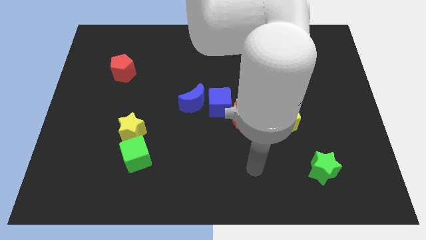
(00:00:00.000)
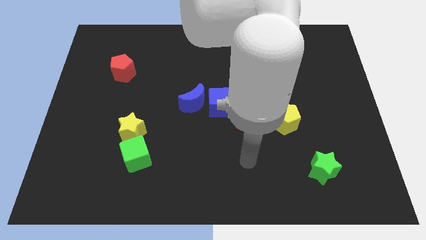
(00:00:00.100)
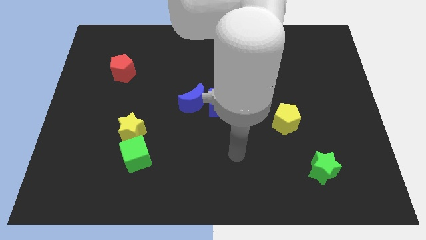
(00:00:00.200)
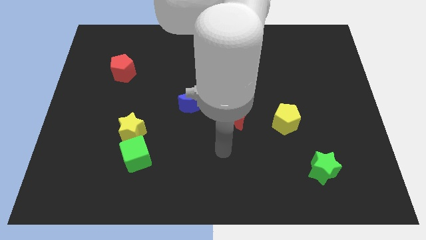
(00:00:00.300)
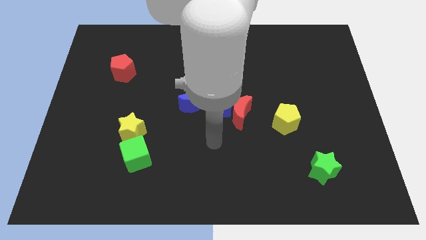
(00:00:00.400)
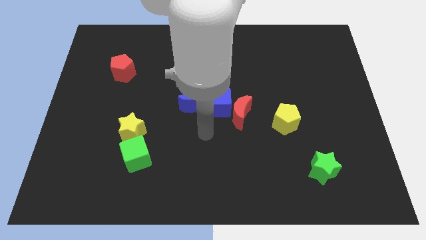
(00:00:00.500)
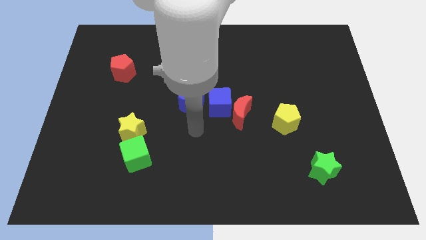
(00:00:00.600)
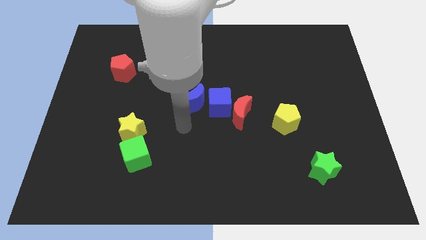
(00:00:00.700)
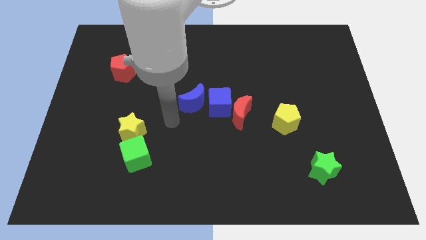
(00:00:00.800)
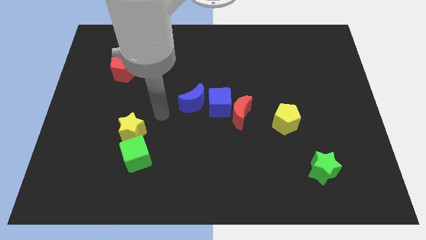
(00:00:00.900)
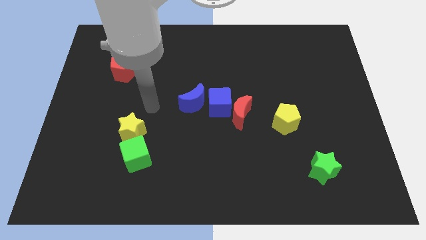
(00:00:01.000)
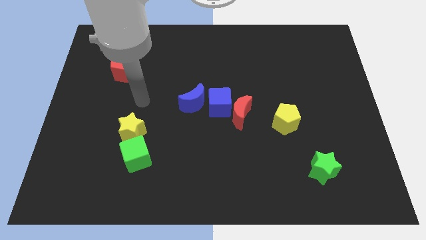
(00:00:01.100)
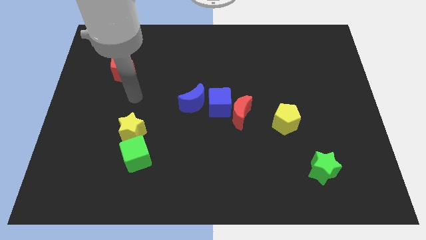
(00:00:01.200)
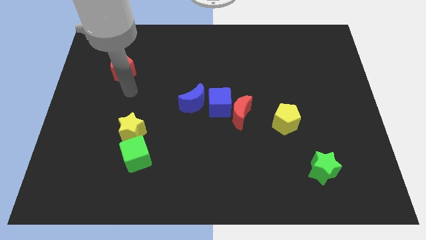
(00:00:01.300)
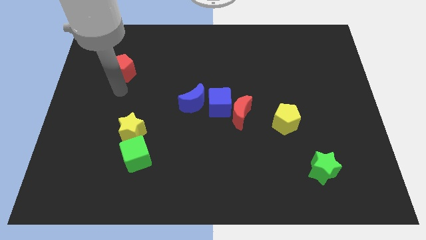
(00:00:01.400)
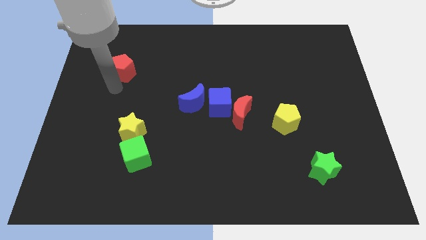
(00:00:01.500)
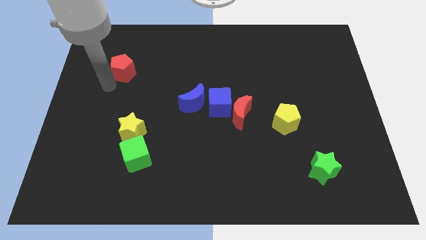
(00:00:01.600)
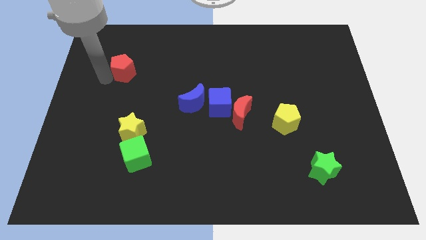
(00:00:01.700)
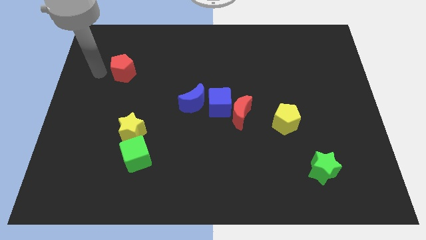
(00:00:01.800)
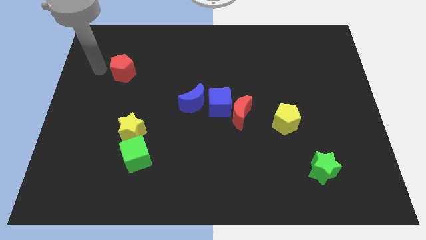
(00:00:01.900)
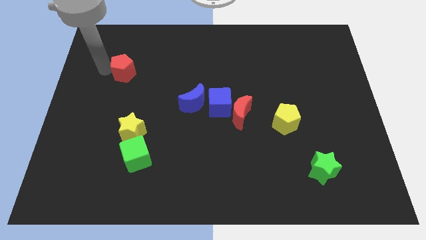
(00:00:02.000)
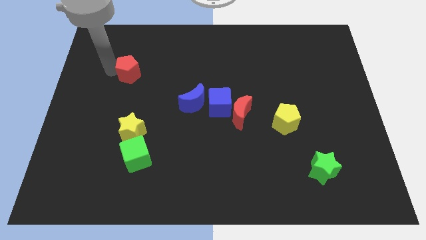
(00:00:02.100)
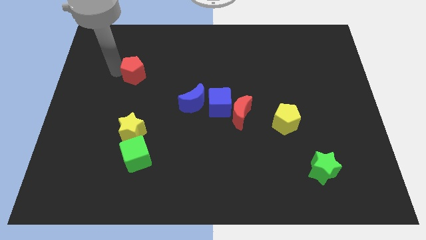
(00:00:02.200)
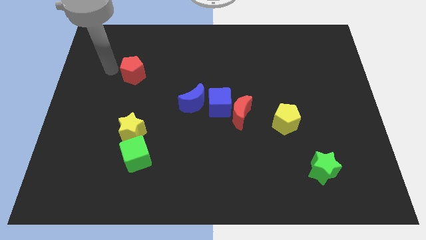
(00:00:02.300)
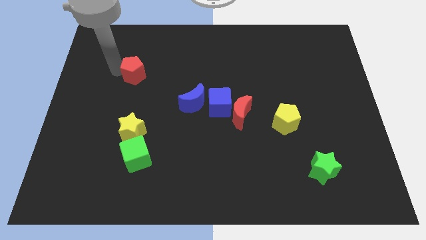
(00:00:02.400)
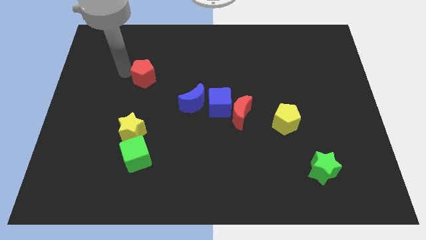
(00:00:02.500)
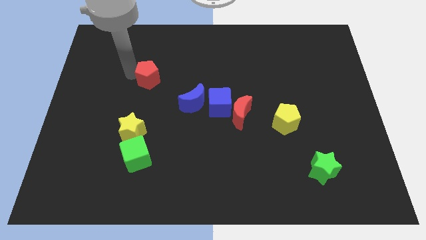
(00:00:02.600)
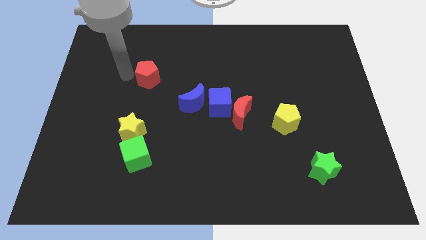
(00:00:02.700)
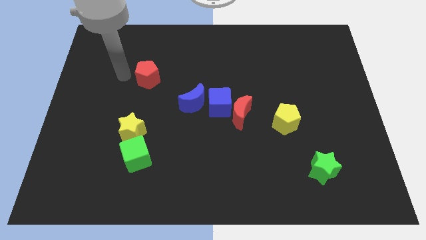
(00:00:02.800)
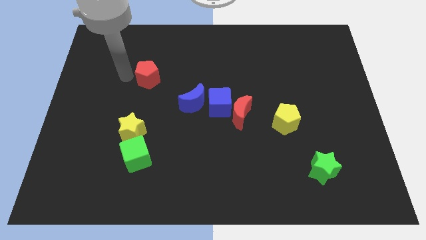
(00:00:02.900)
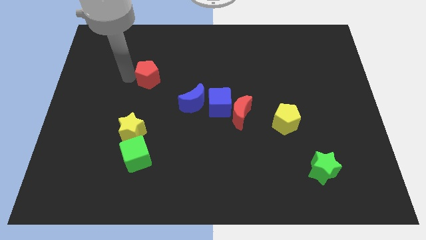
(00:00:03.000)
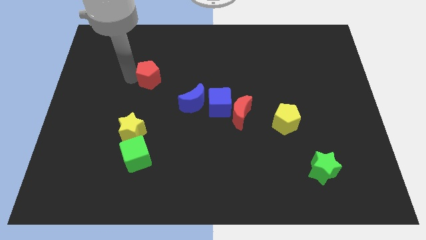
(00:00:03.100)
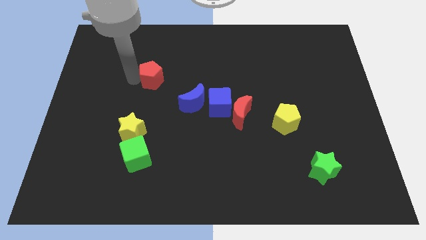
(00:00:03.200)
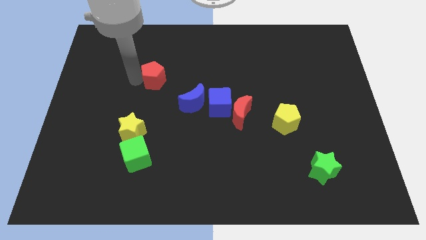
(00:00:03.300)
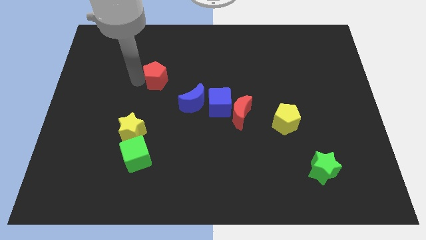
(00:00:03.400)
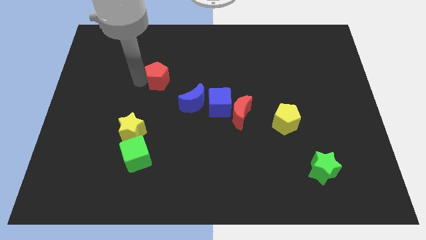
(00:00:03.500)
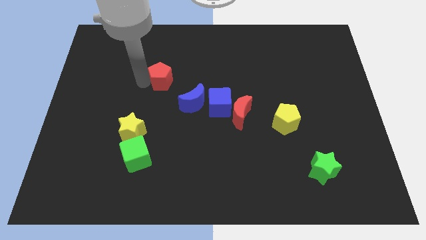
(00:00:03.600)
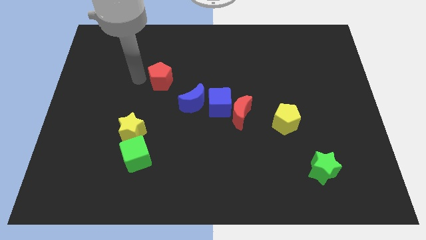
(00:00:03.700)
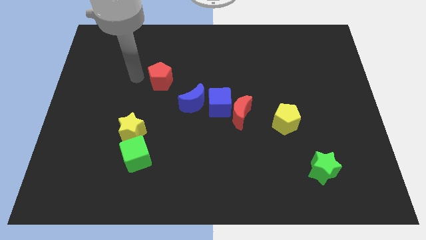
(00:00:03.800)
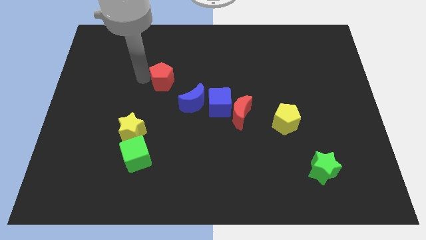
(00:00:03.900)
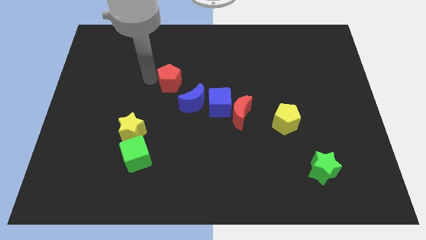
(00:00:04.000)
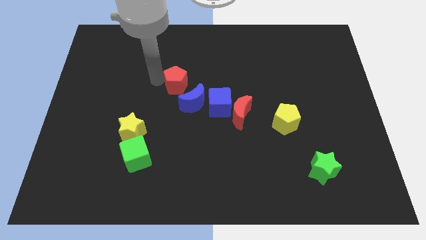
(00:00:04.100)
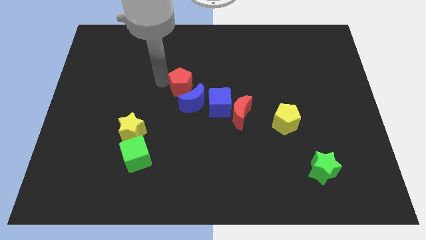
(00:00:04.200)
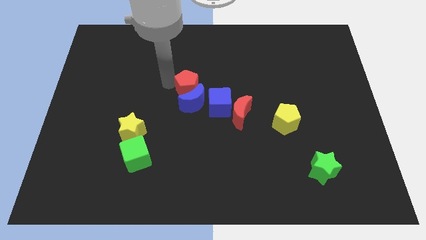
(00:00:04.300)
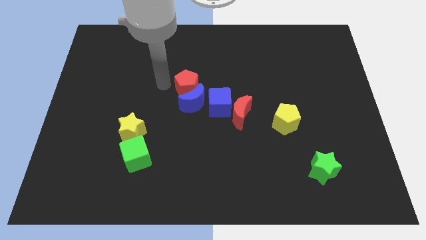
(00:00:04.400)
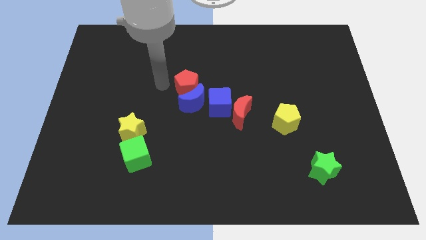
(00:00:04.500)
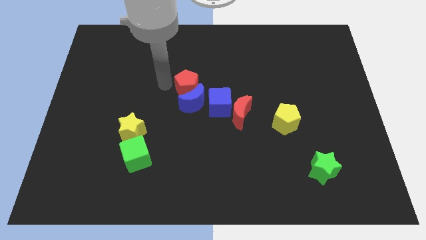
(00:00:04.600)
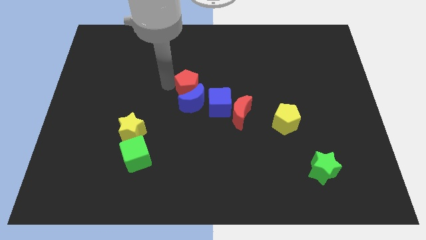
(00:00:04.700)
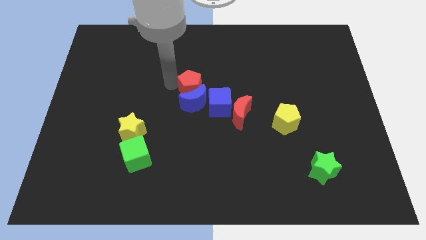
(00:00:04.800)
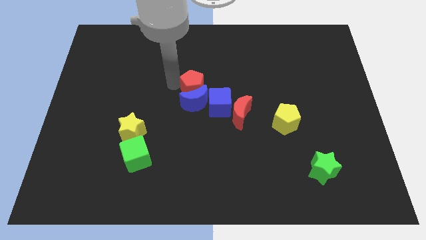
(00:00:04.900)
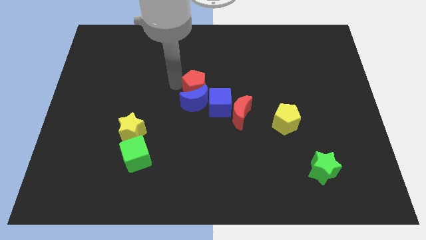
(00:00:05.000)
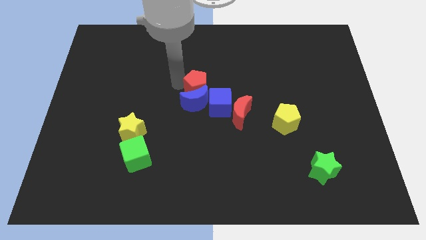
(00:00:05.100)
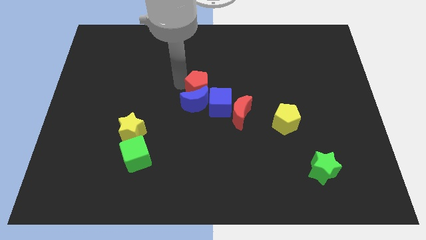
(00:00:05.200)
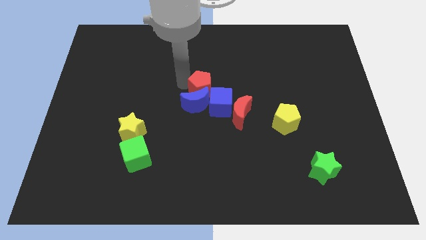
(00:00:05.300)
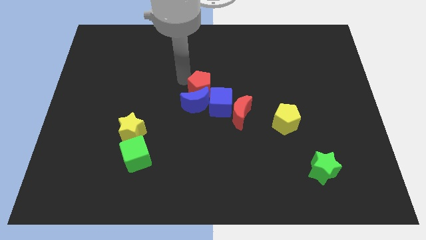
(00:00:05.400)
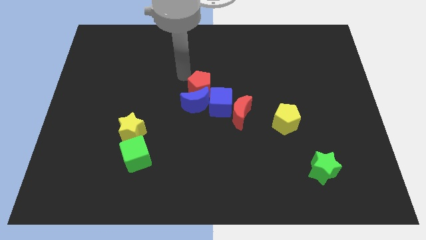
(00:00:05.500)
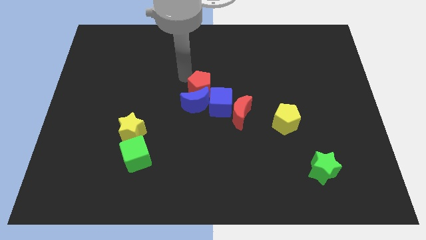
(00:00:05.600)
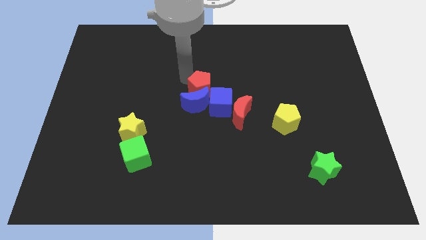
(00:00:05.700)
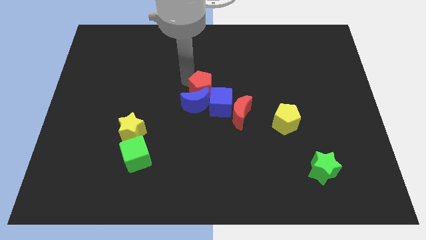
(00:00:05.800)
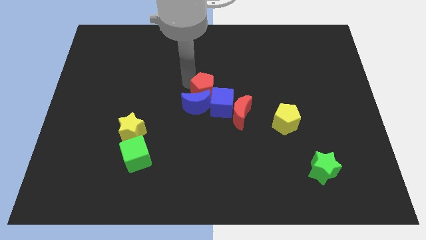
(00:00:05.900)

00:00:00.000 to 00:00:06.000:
put the red pentagon close to the blue cube

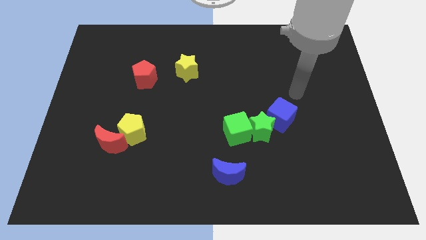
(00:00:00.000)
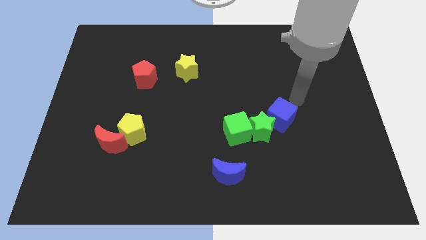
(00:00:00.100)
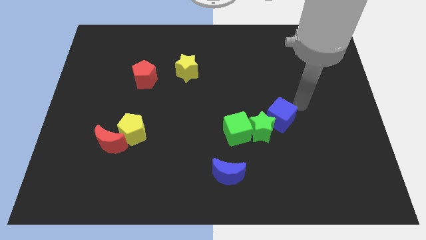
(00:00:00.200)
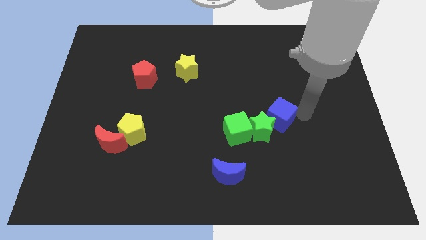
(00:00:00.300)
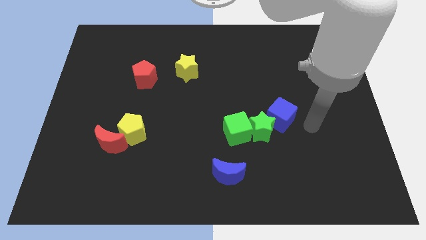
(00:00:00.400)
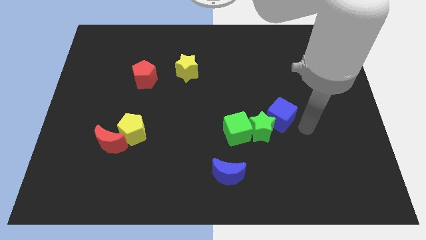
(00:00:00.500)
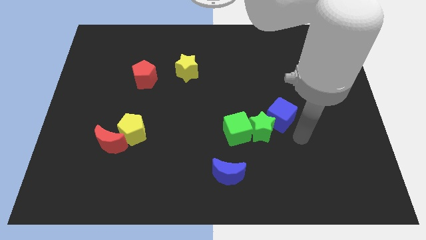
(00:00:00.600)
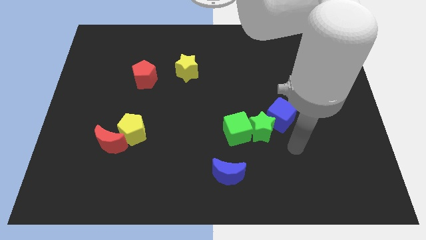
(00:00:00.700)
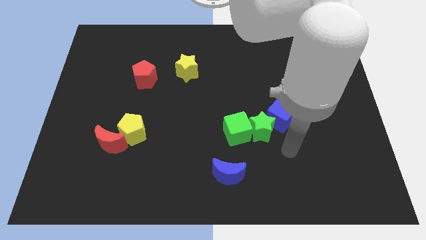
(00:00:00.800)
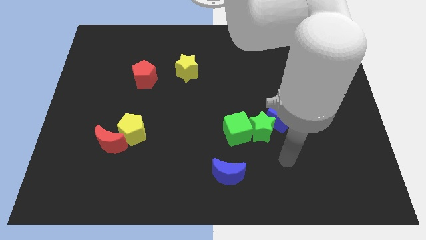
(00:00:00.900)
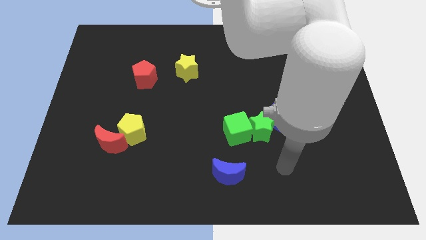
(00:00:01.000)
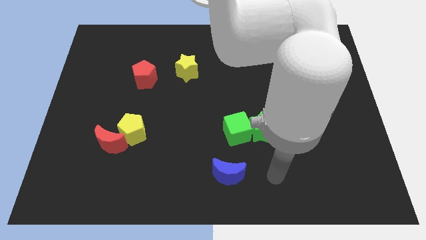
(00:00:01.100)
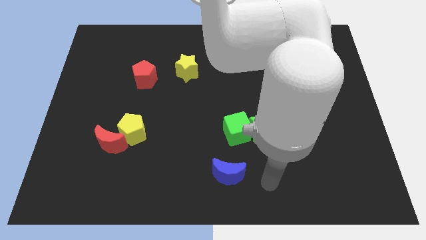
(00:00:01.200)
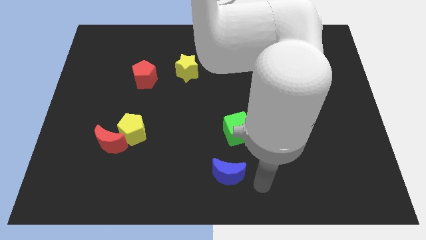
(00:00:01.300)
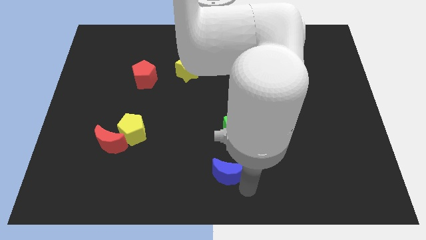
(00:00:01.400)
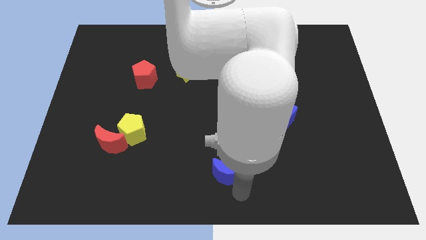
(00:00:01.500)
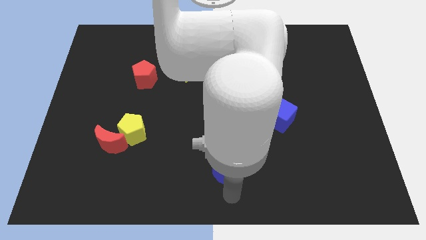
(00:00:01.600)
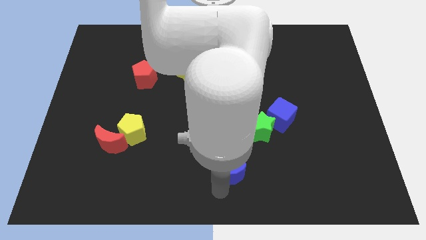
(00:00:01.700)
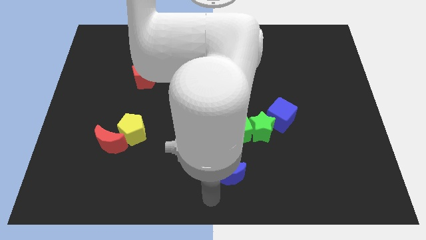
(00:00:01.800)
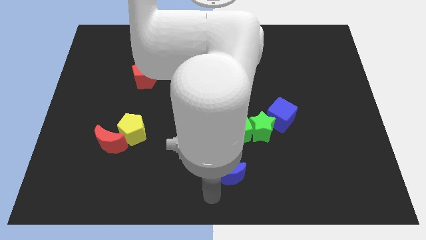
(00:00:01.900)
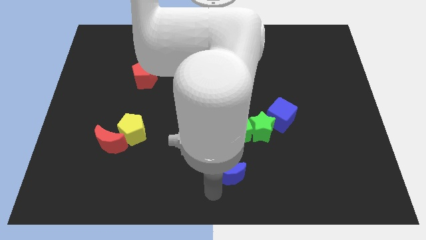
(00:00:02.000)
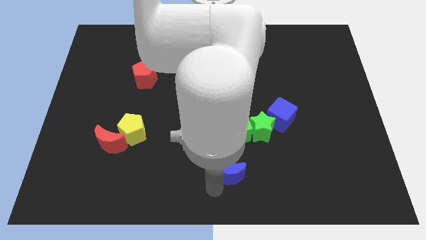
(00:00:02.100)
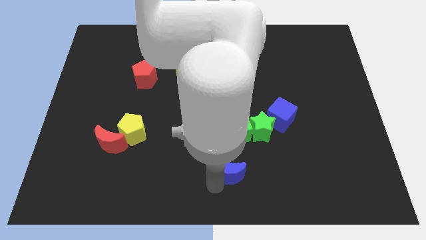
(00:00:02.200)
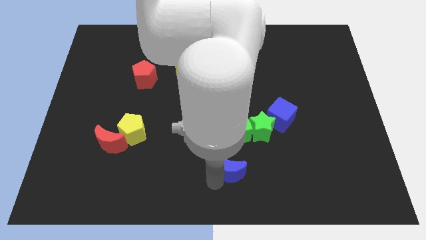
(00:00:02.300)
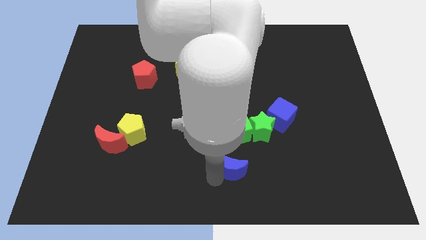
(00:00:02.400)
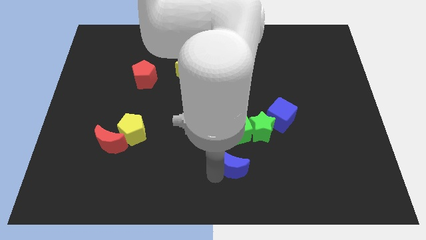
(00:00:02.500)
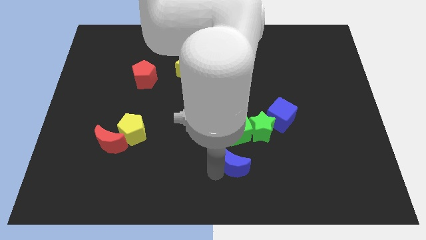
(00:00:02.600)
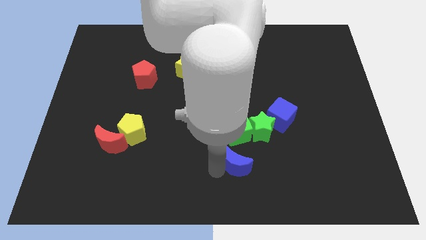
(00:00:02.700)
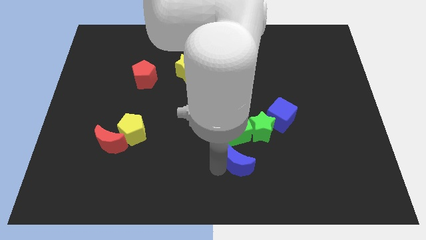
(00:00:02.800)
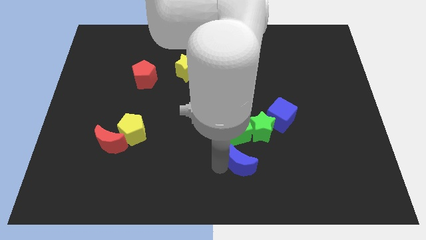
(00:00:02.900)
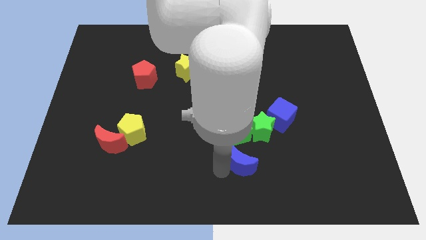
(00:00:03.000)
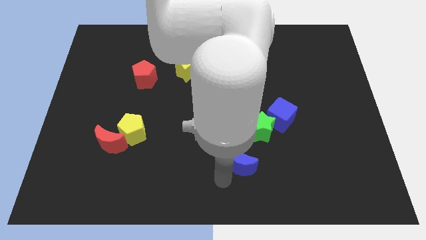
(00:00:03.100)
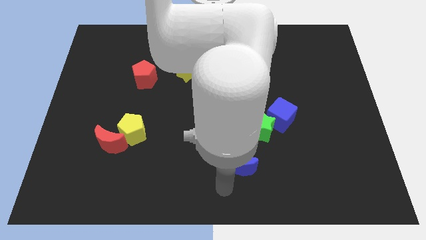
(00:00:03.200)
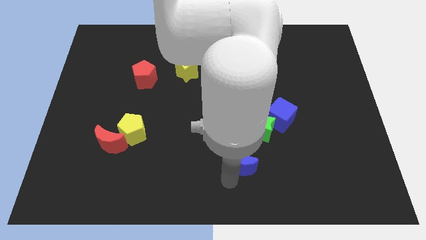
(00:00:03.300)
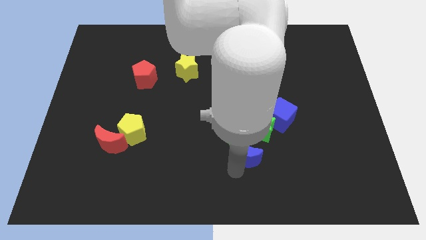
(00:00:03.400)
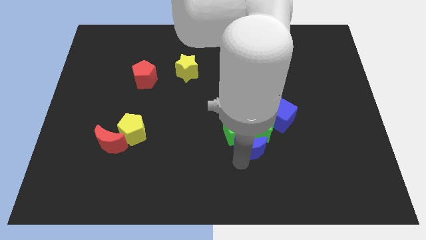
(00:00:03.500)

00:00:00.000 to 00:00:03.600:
move the blue moon next to the green star
